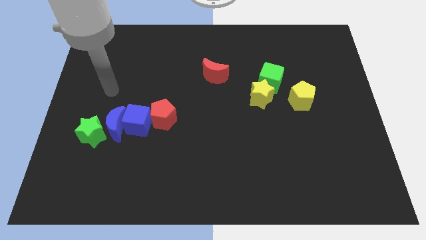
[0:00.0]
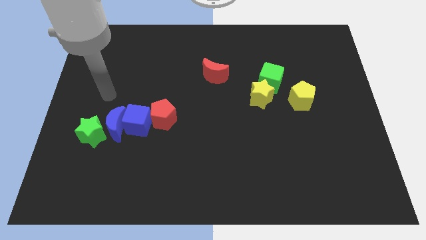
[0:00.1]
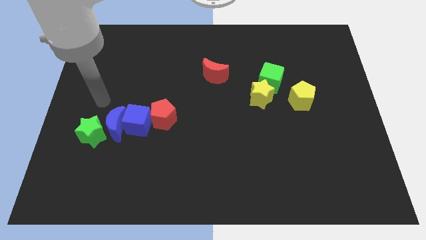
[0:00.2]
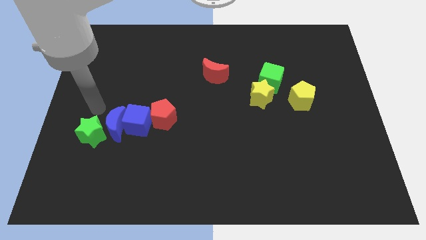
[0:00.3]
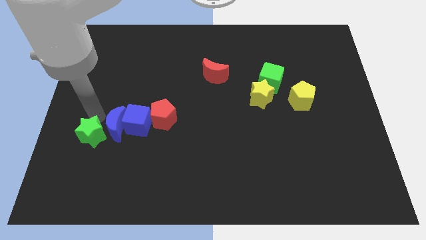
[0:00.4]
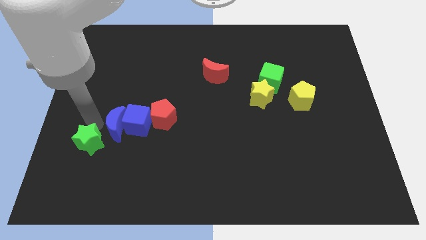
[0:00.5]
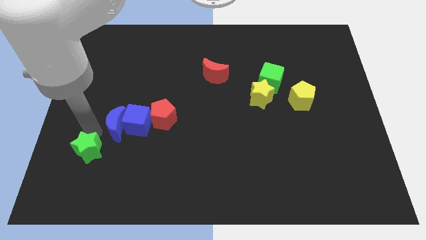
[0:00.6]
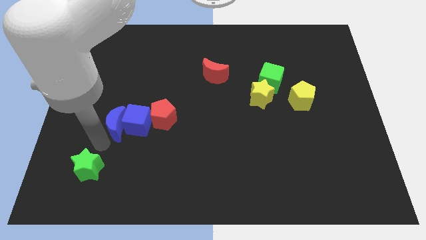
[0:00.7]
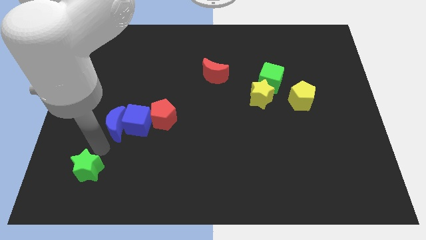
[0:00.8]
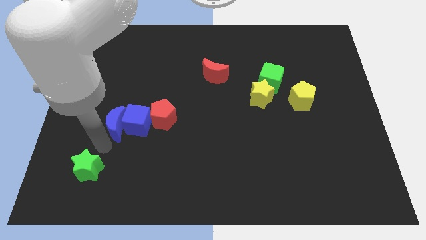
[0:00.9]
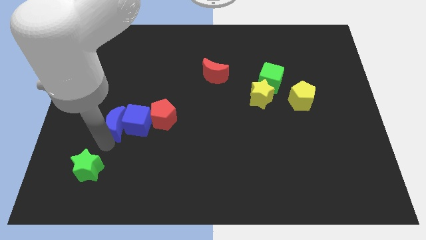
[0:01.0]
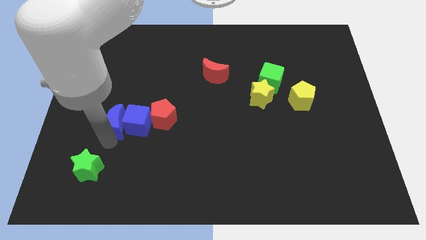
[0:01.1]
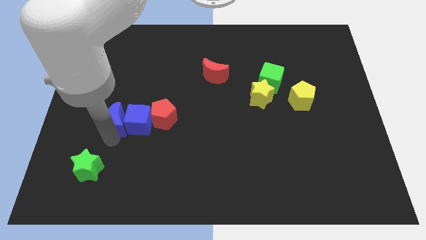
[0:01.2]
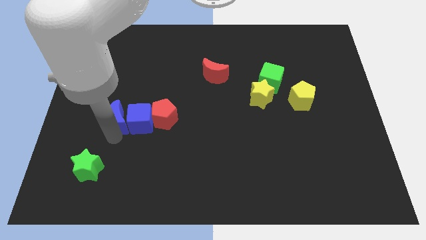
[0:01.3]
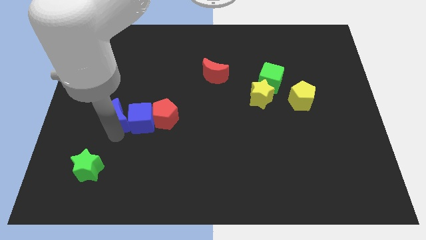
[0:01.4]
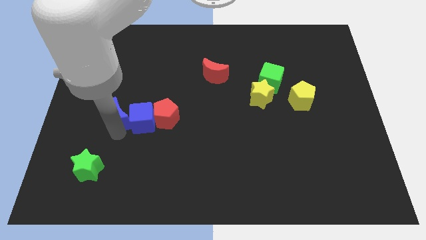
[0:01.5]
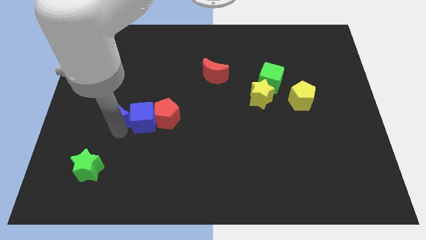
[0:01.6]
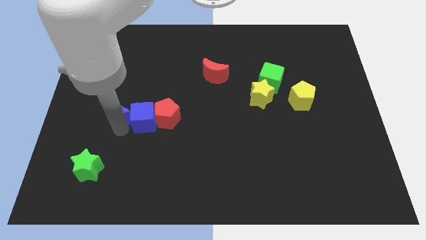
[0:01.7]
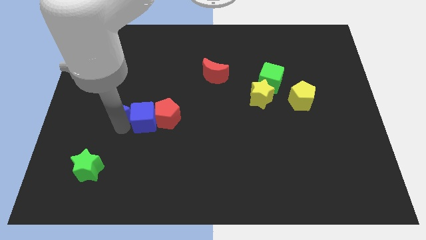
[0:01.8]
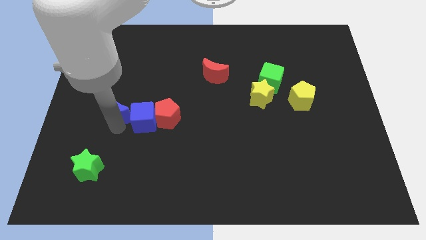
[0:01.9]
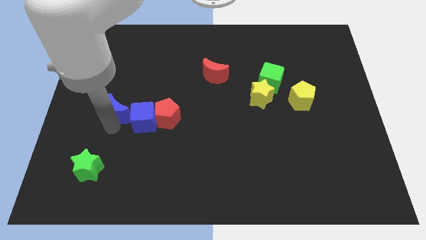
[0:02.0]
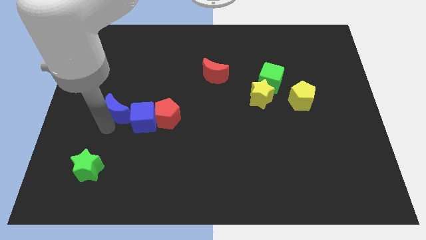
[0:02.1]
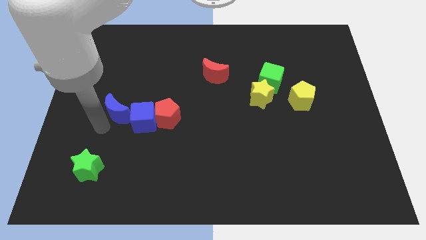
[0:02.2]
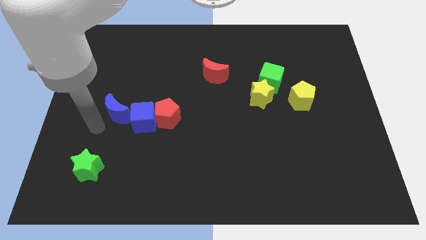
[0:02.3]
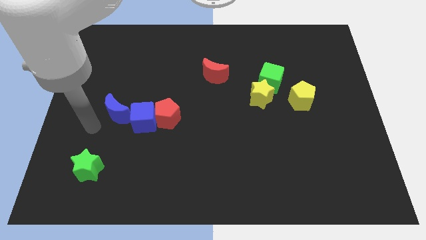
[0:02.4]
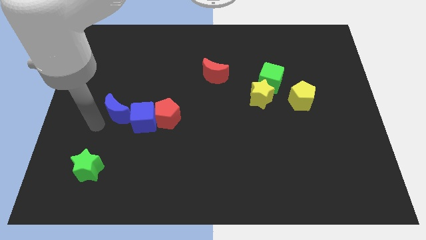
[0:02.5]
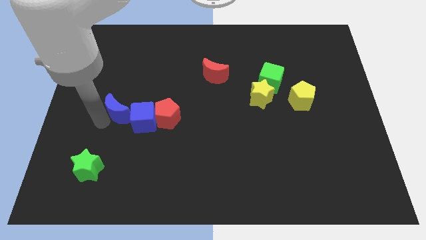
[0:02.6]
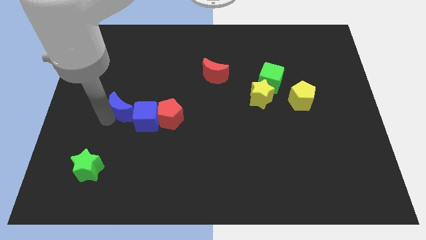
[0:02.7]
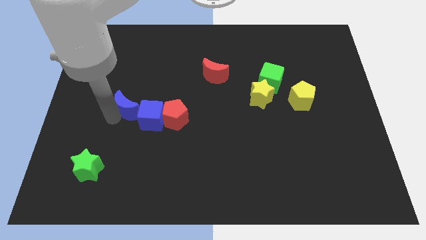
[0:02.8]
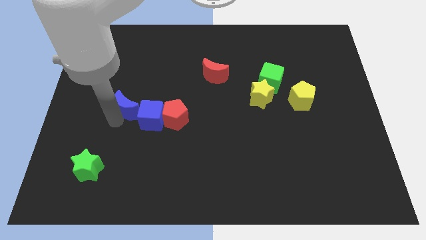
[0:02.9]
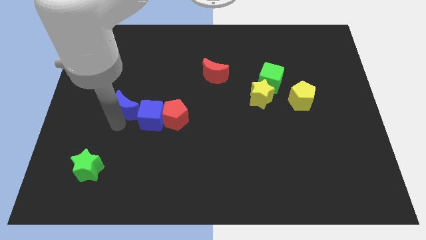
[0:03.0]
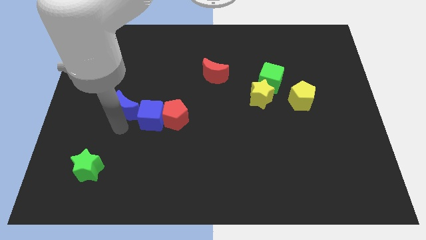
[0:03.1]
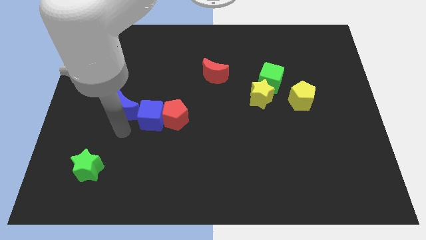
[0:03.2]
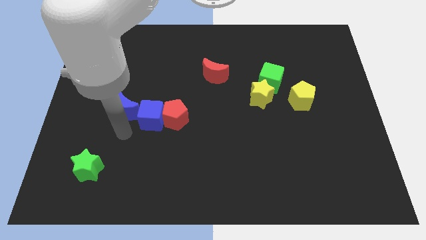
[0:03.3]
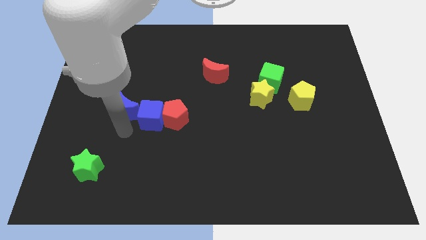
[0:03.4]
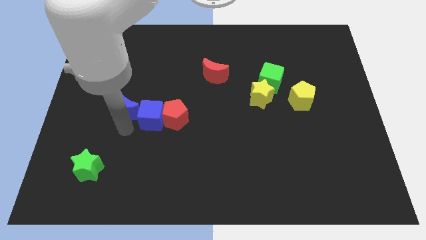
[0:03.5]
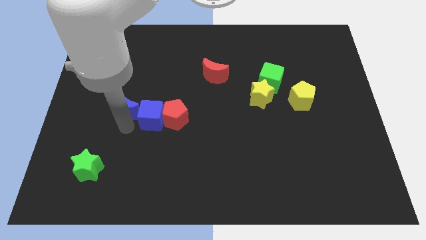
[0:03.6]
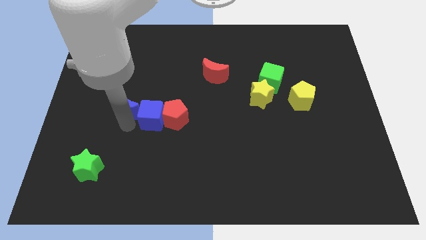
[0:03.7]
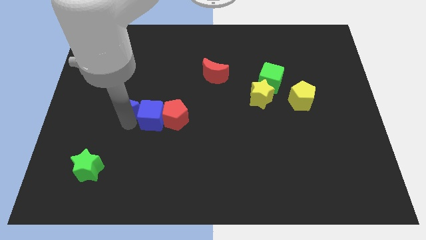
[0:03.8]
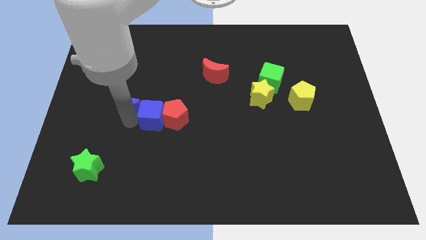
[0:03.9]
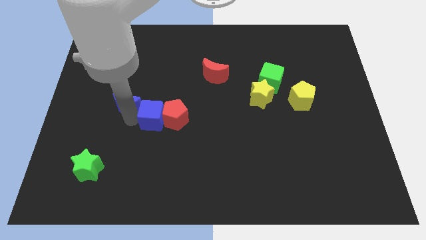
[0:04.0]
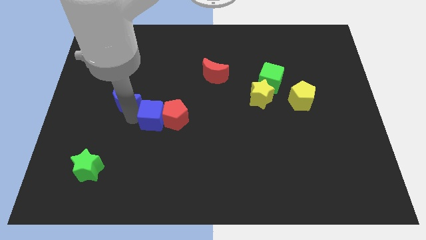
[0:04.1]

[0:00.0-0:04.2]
move the blue moon away from the blue cube and green star

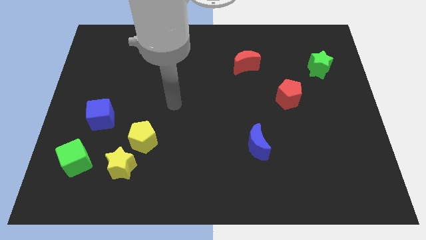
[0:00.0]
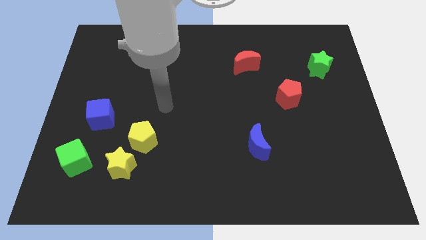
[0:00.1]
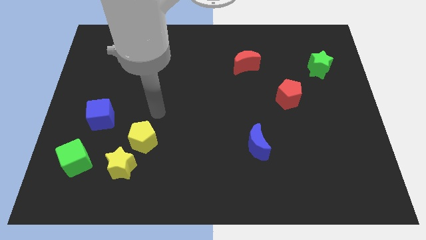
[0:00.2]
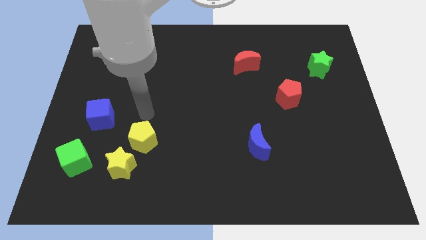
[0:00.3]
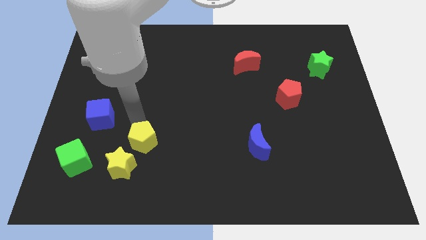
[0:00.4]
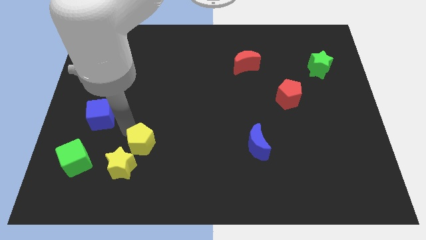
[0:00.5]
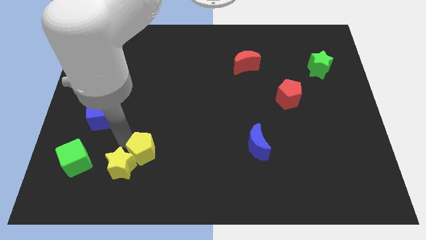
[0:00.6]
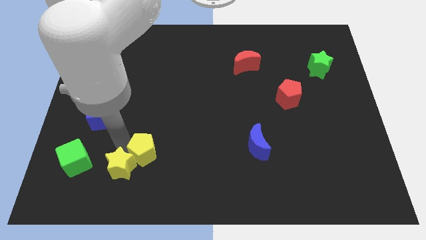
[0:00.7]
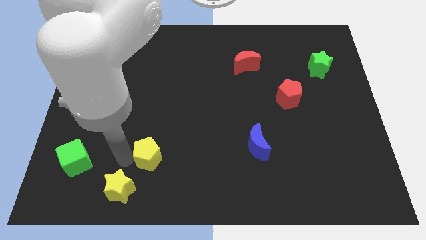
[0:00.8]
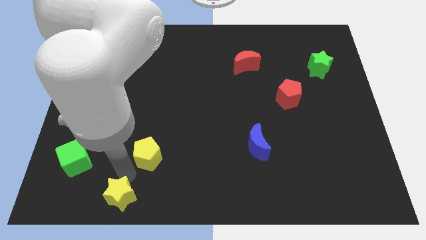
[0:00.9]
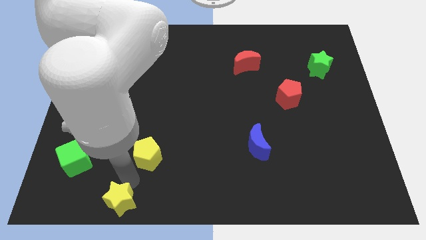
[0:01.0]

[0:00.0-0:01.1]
separate the yellow pentagon from the yellow star

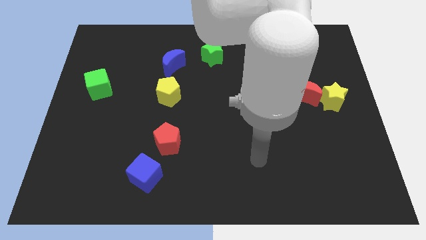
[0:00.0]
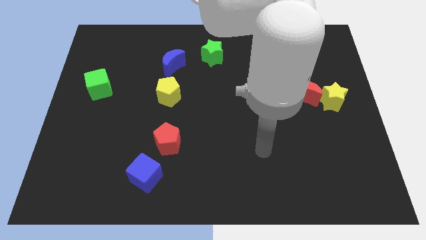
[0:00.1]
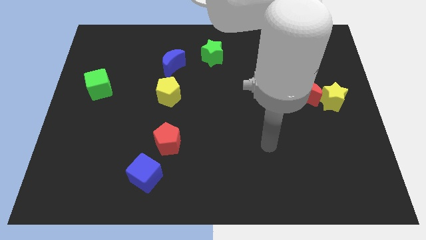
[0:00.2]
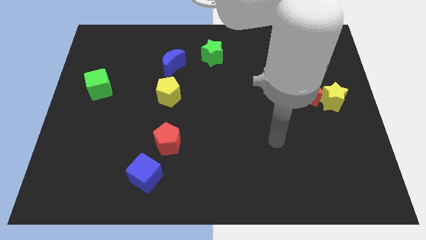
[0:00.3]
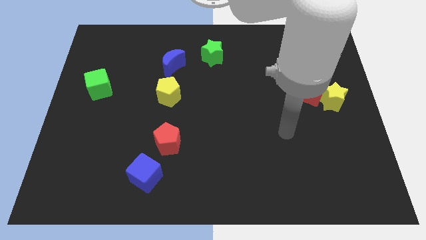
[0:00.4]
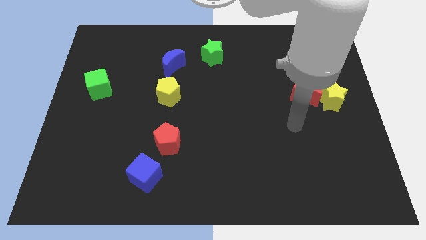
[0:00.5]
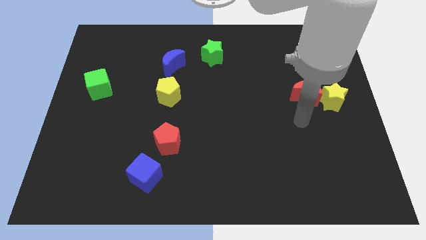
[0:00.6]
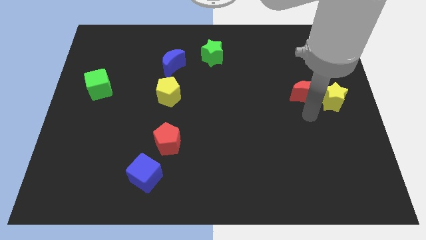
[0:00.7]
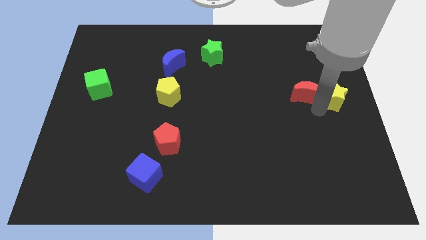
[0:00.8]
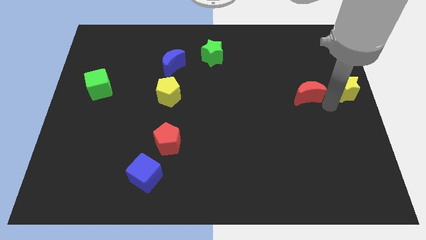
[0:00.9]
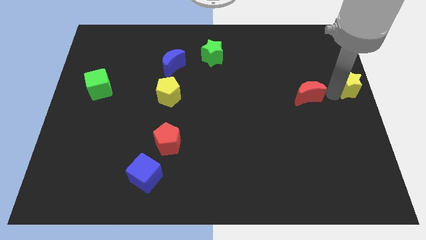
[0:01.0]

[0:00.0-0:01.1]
separate the red moon from the yellow star

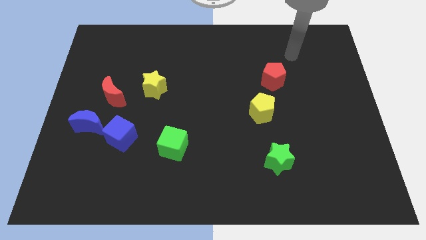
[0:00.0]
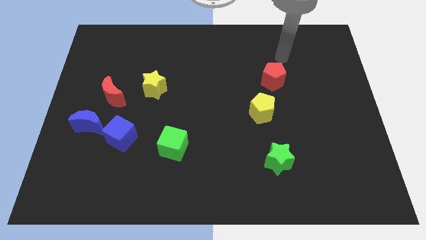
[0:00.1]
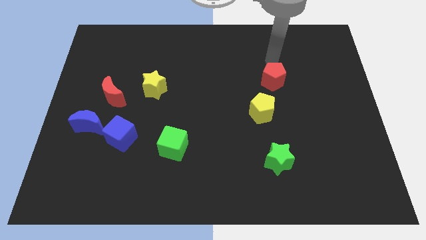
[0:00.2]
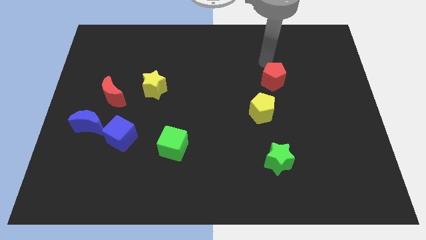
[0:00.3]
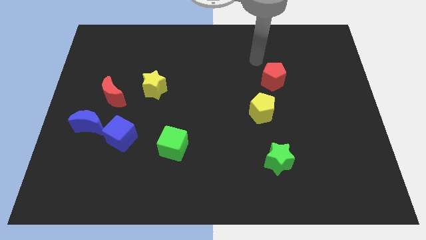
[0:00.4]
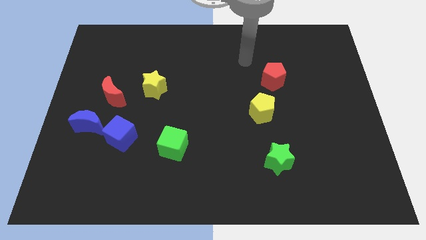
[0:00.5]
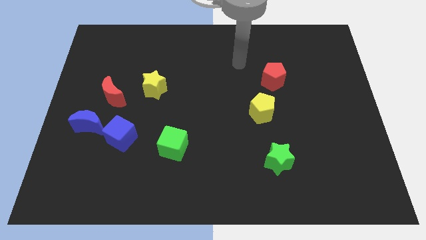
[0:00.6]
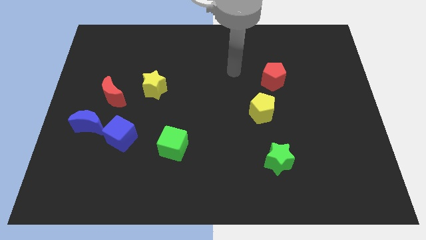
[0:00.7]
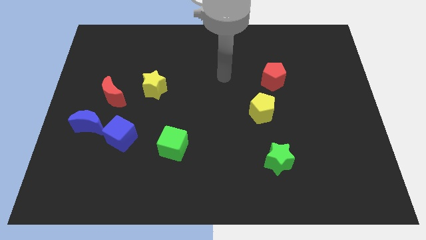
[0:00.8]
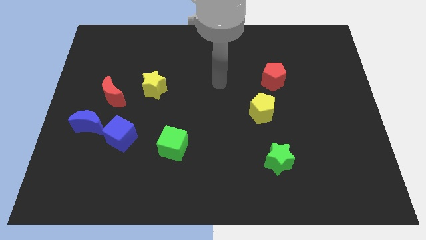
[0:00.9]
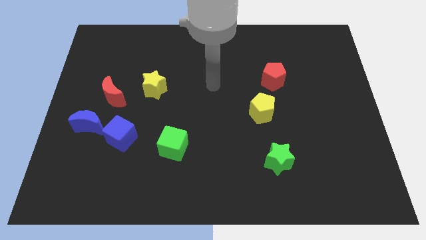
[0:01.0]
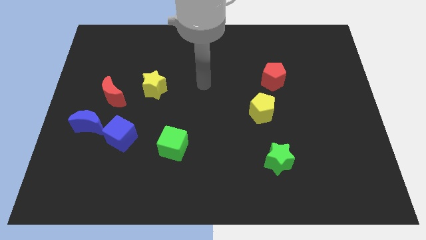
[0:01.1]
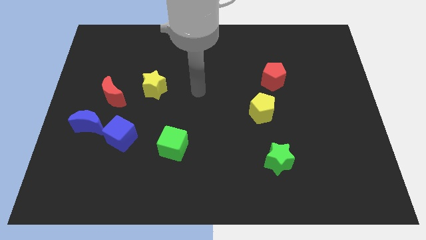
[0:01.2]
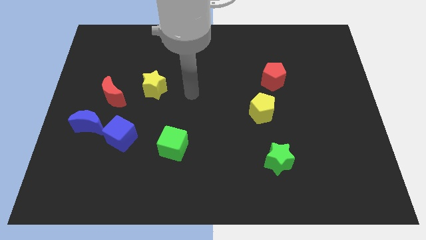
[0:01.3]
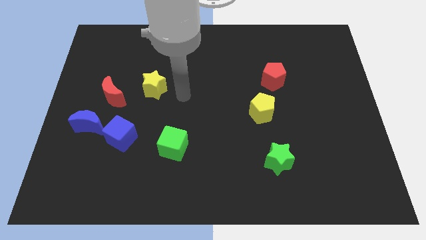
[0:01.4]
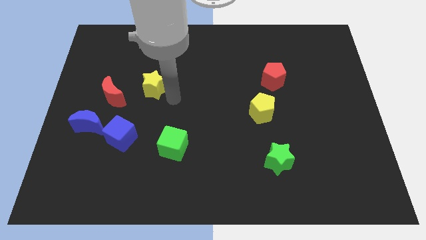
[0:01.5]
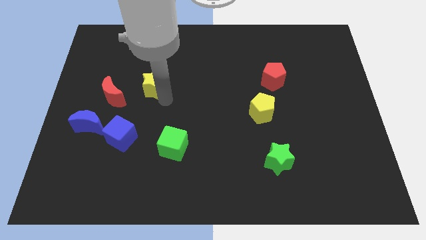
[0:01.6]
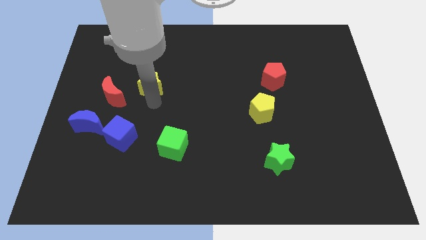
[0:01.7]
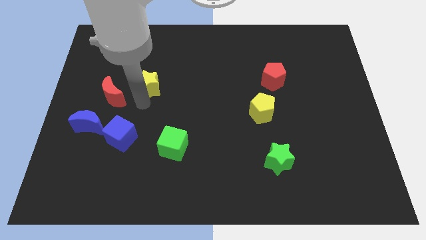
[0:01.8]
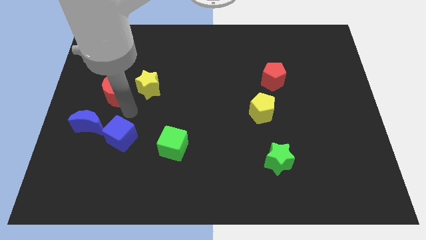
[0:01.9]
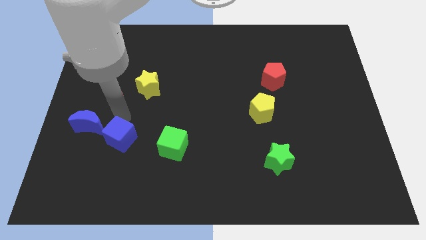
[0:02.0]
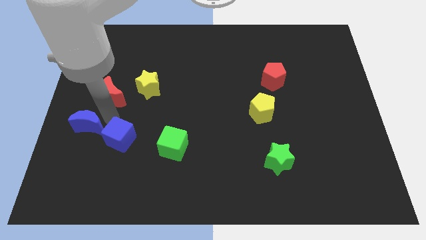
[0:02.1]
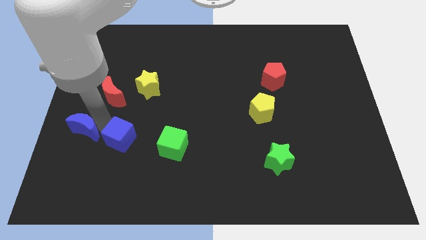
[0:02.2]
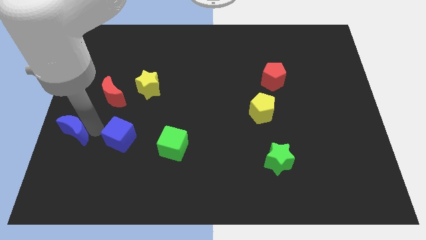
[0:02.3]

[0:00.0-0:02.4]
separate the blue cube from the blue moon

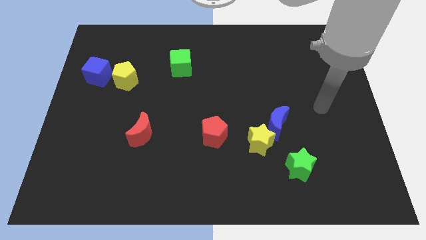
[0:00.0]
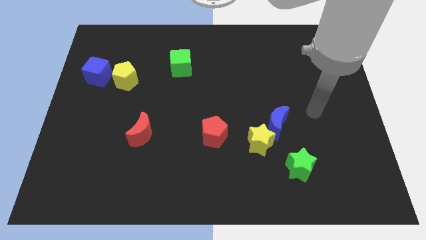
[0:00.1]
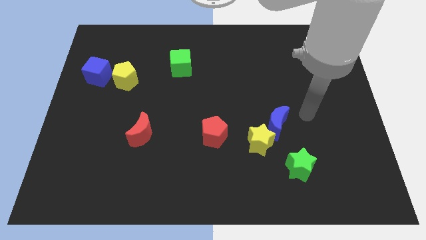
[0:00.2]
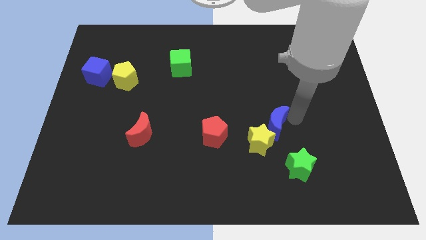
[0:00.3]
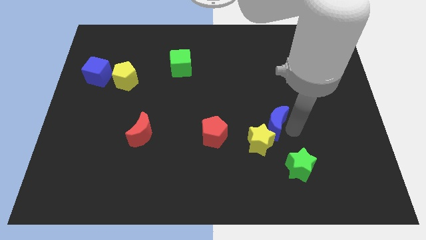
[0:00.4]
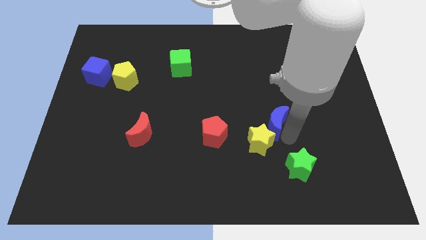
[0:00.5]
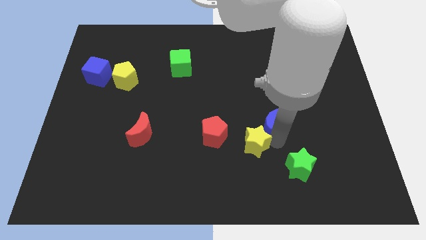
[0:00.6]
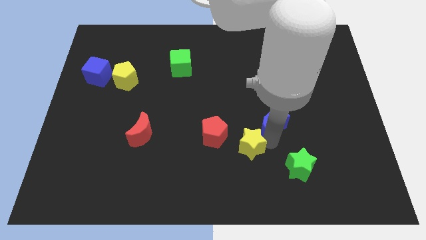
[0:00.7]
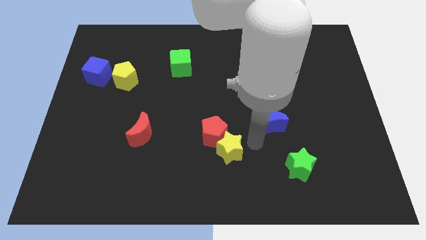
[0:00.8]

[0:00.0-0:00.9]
pull the blue moon apart from the yellow star
